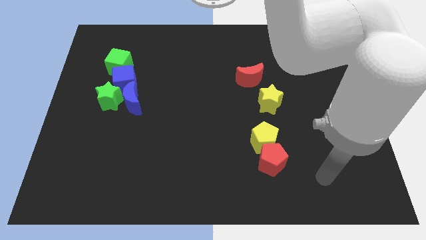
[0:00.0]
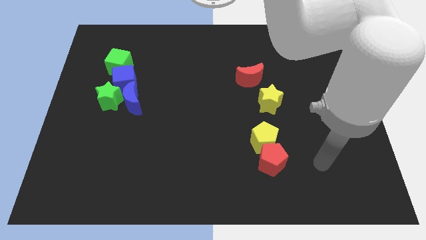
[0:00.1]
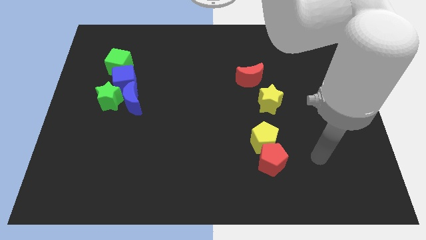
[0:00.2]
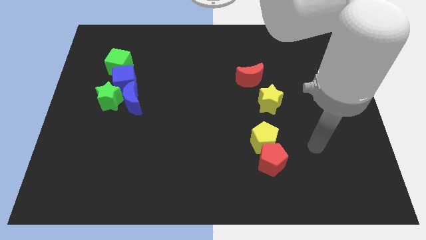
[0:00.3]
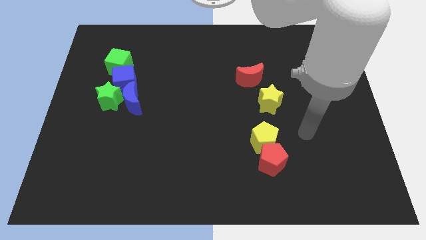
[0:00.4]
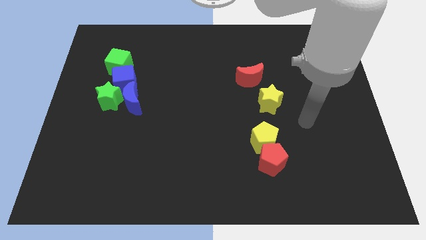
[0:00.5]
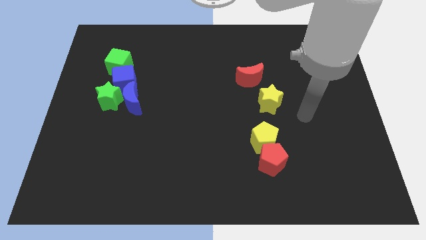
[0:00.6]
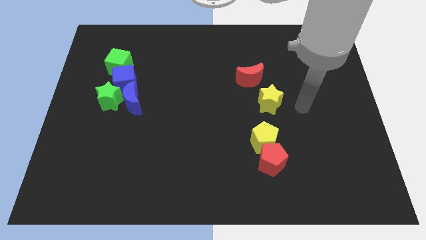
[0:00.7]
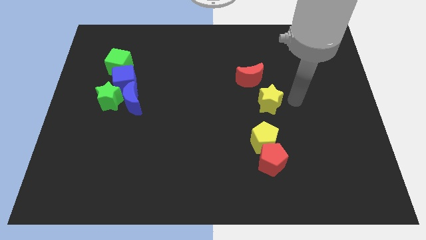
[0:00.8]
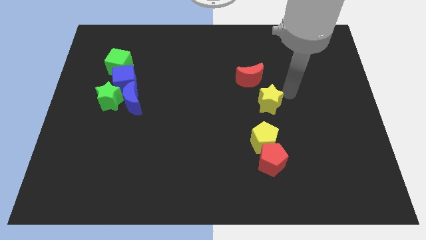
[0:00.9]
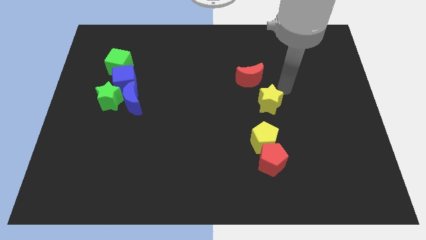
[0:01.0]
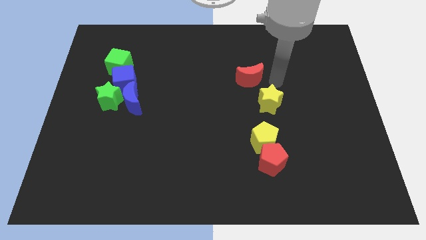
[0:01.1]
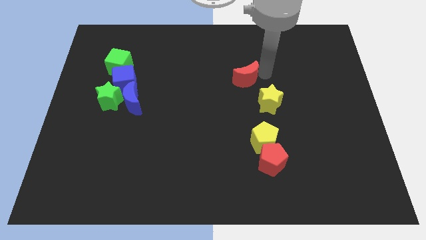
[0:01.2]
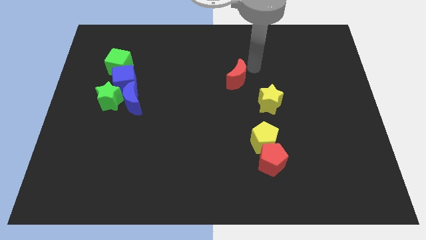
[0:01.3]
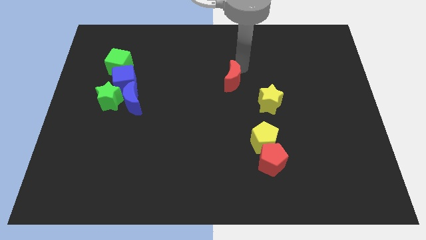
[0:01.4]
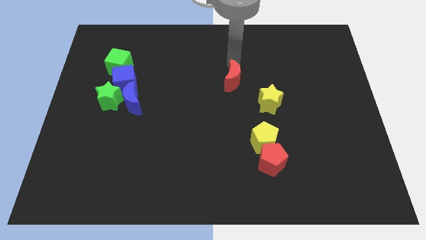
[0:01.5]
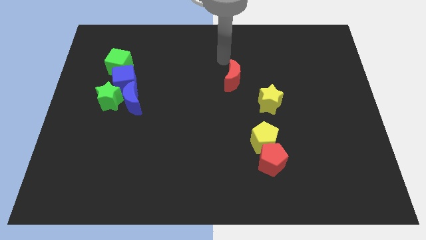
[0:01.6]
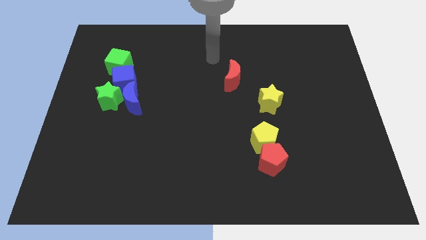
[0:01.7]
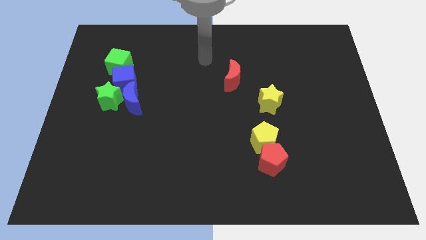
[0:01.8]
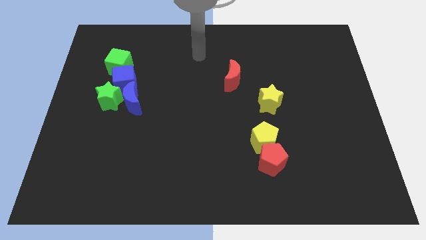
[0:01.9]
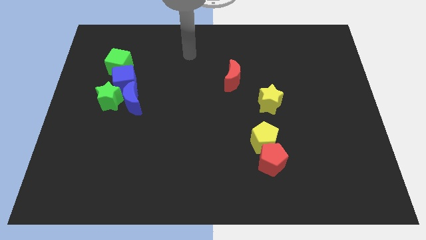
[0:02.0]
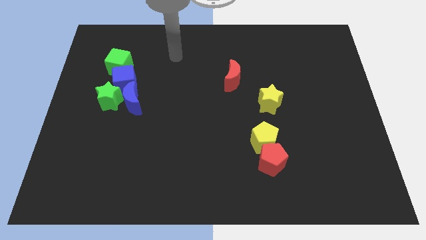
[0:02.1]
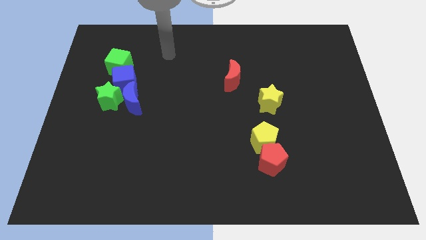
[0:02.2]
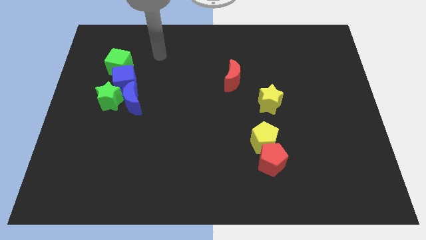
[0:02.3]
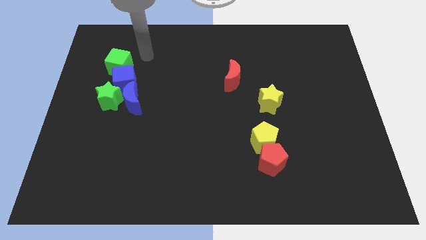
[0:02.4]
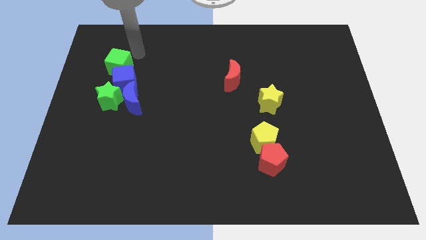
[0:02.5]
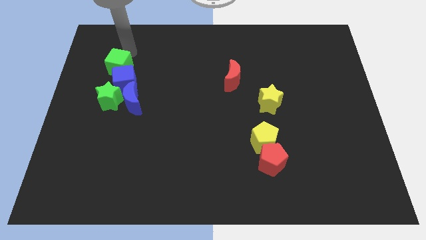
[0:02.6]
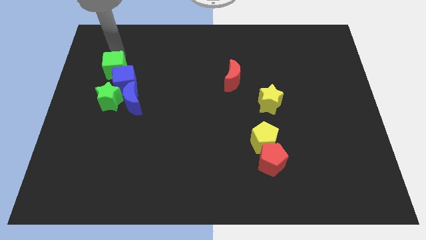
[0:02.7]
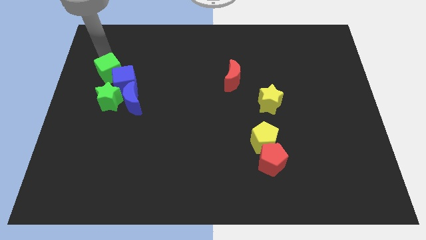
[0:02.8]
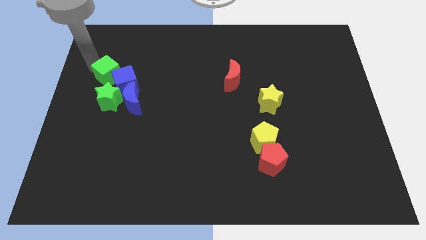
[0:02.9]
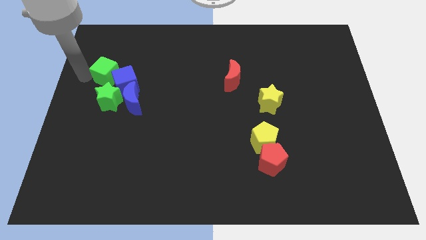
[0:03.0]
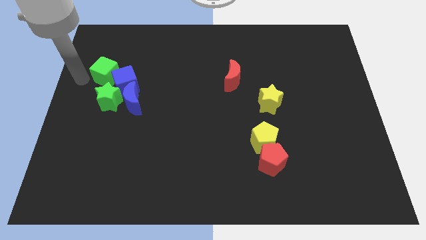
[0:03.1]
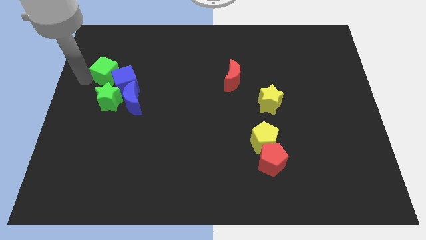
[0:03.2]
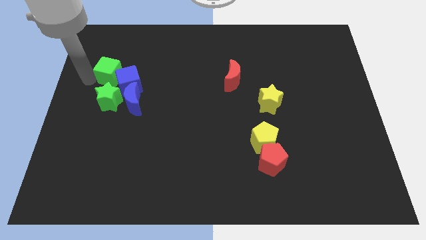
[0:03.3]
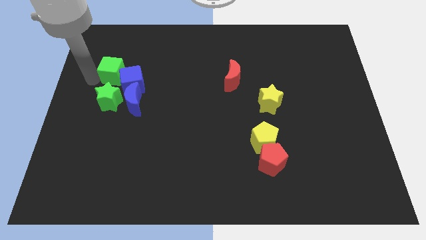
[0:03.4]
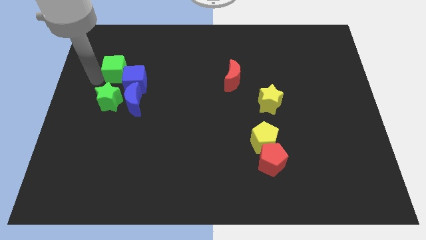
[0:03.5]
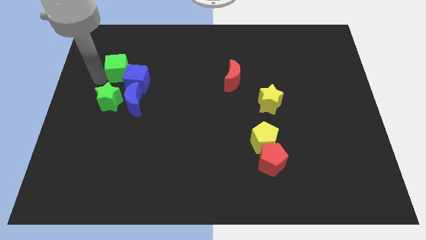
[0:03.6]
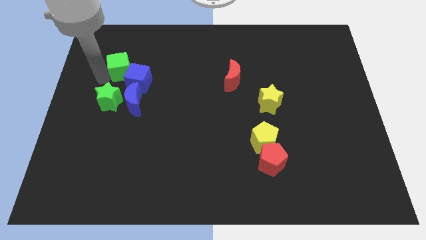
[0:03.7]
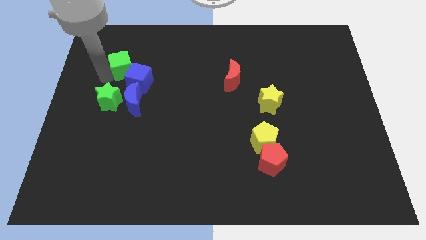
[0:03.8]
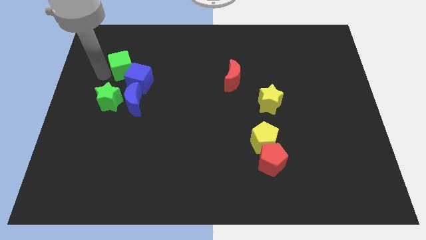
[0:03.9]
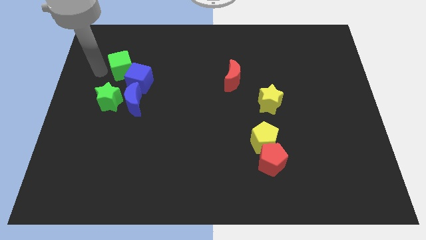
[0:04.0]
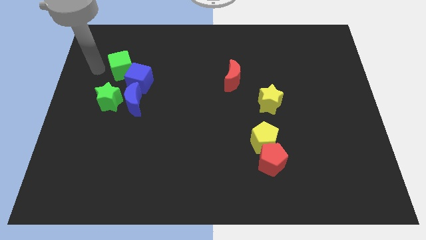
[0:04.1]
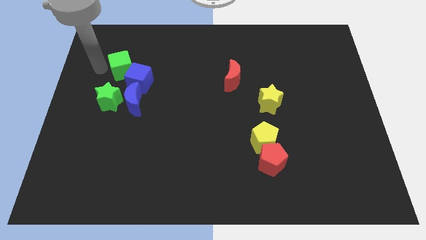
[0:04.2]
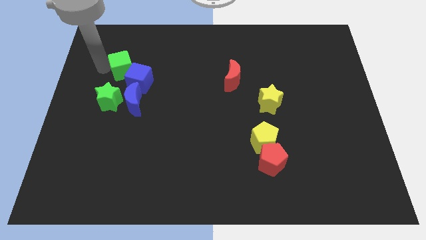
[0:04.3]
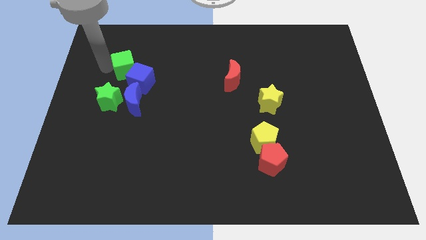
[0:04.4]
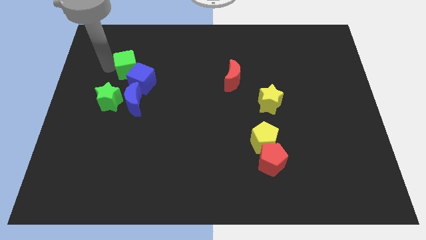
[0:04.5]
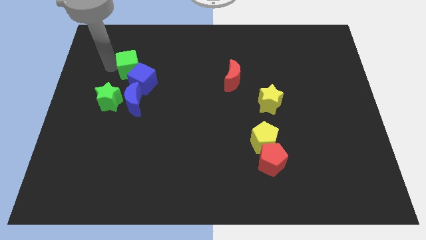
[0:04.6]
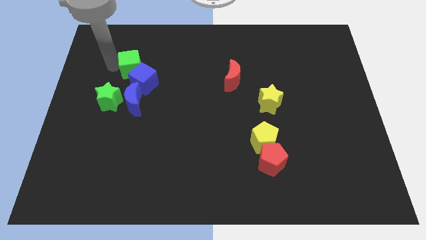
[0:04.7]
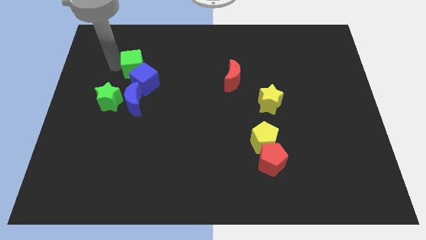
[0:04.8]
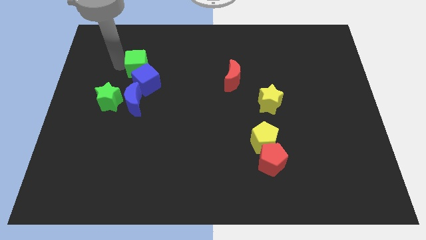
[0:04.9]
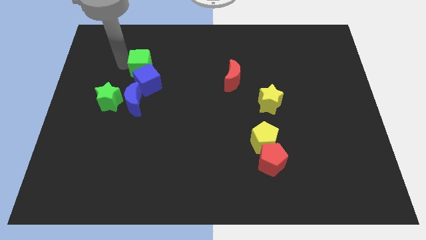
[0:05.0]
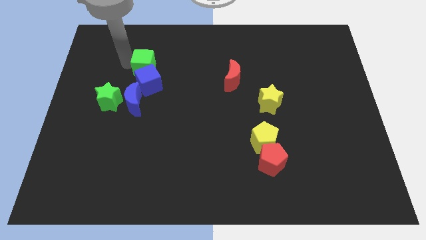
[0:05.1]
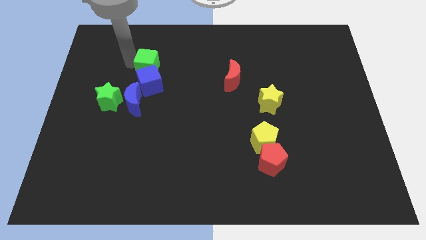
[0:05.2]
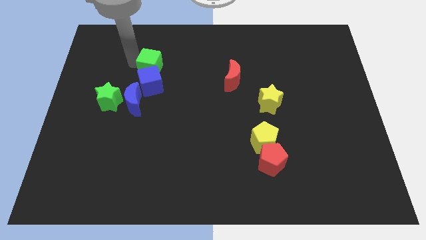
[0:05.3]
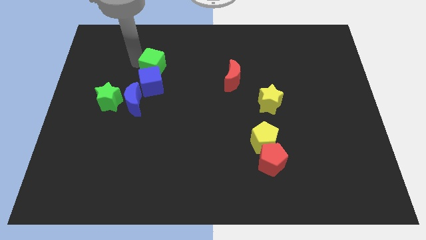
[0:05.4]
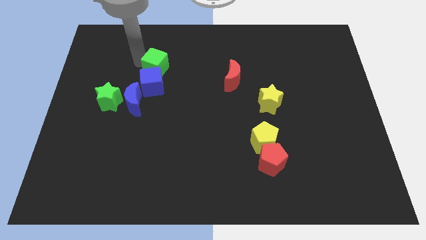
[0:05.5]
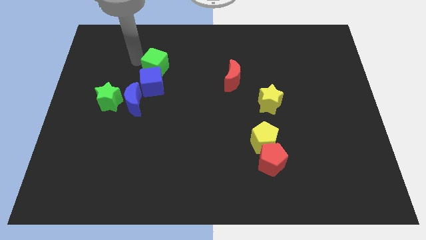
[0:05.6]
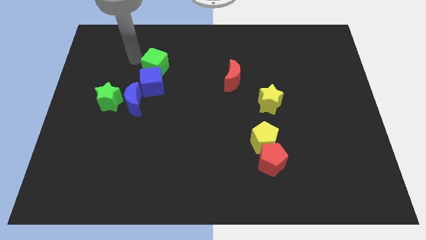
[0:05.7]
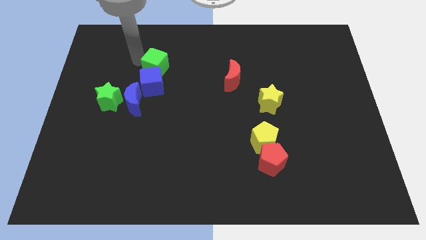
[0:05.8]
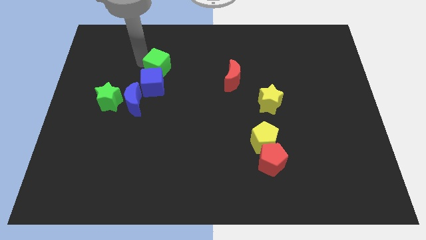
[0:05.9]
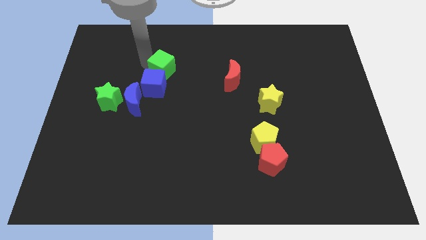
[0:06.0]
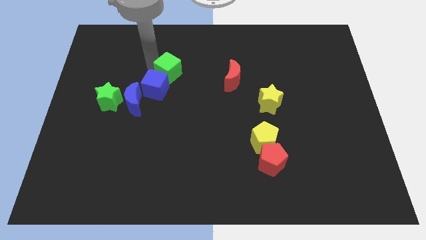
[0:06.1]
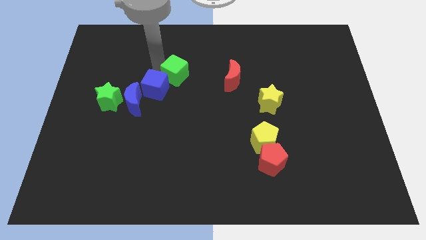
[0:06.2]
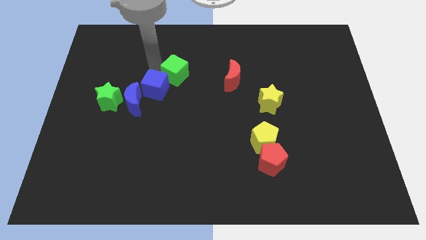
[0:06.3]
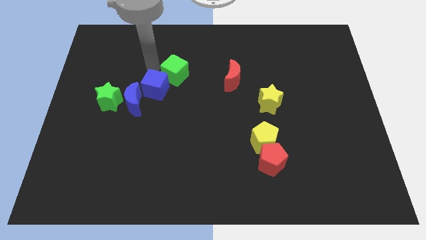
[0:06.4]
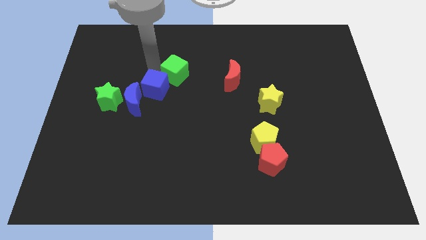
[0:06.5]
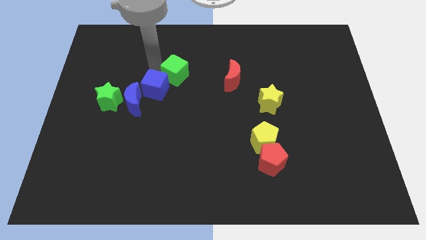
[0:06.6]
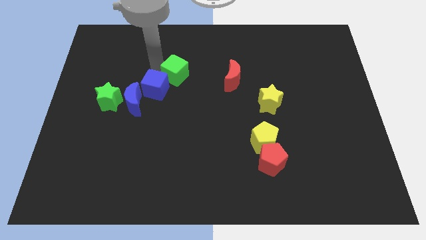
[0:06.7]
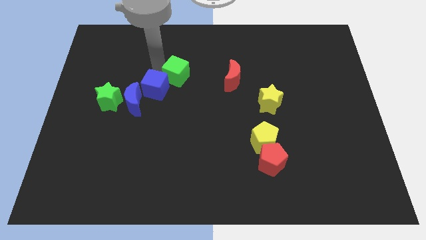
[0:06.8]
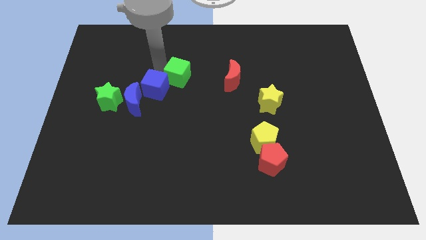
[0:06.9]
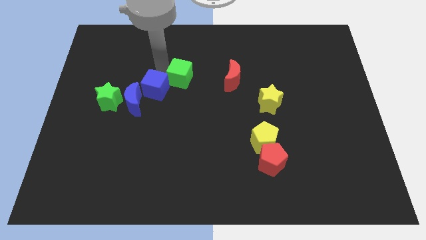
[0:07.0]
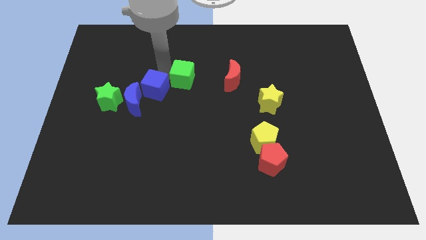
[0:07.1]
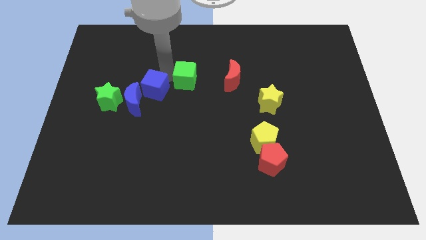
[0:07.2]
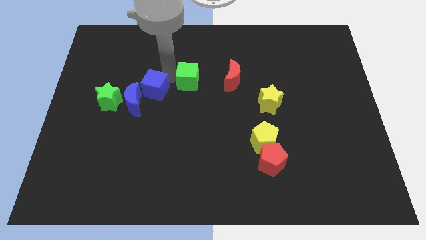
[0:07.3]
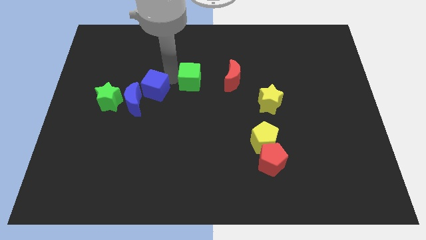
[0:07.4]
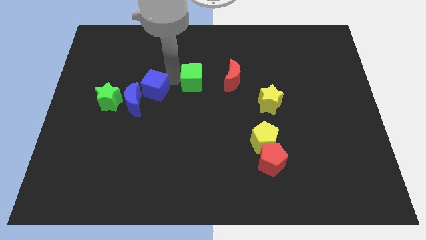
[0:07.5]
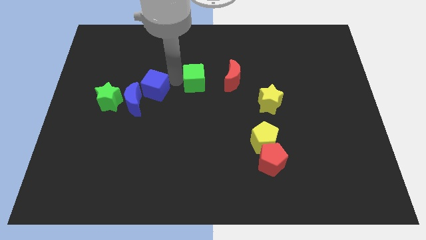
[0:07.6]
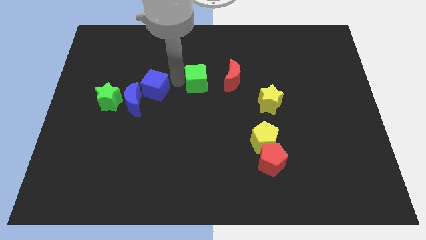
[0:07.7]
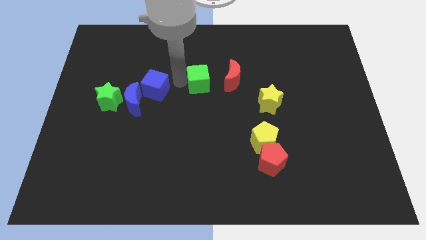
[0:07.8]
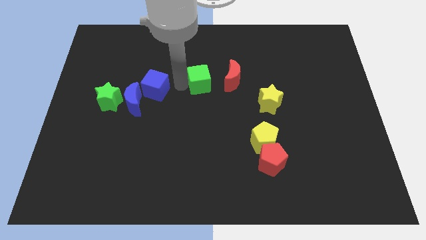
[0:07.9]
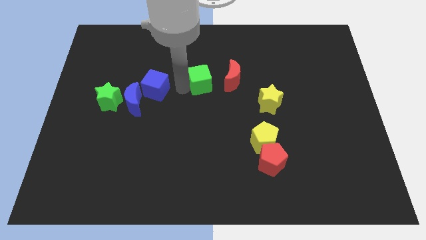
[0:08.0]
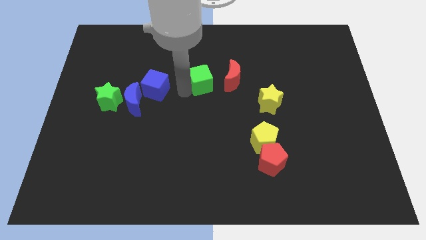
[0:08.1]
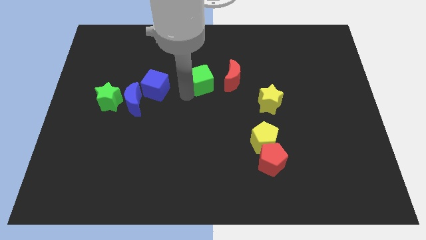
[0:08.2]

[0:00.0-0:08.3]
slide the green cube right
